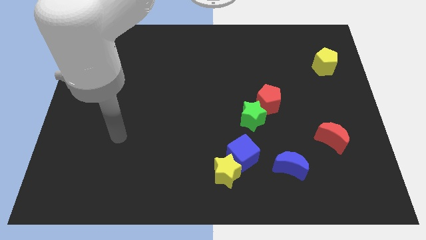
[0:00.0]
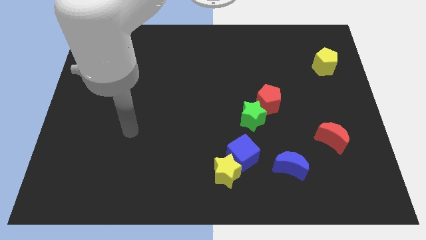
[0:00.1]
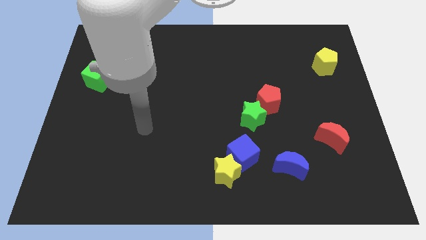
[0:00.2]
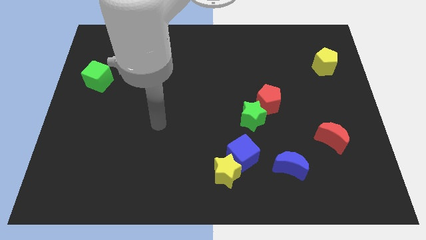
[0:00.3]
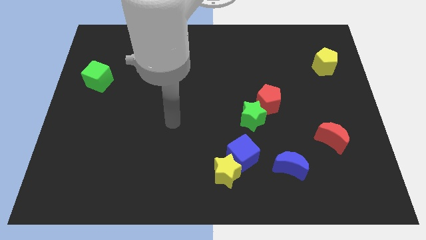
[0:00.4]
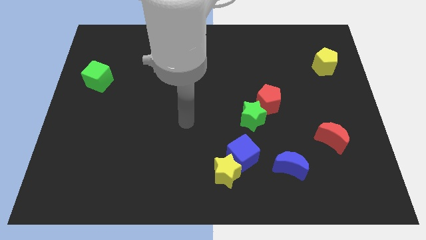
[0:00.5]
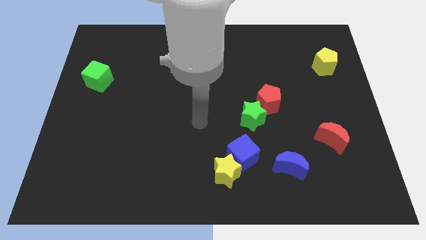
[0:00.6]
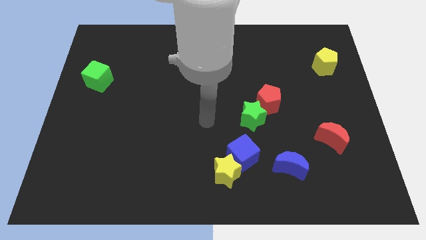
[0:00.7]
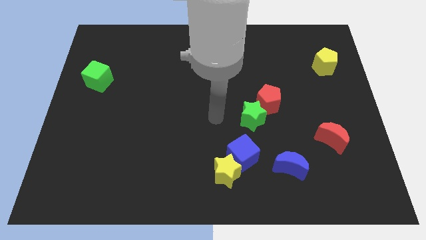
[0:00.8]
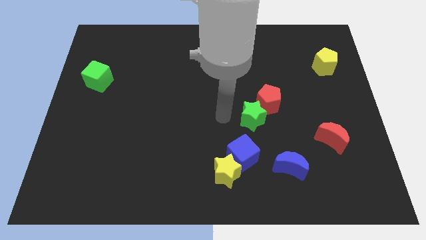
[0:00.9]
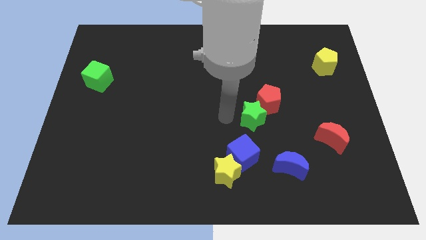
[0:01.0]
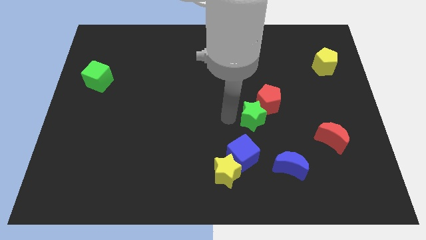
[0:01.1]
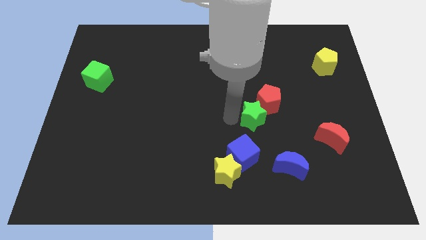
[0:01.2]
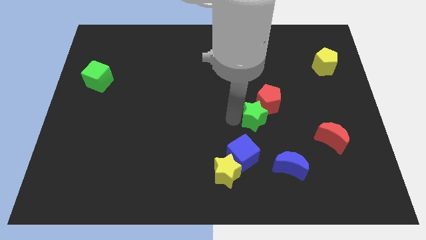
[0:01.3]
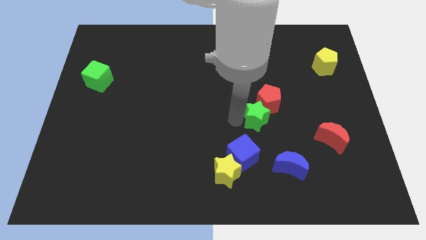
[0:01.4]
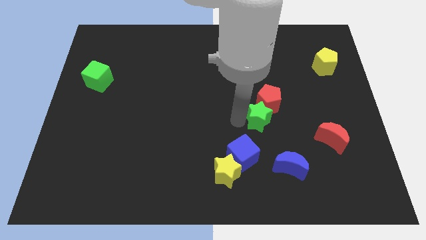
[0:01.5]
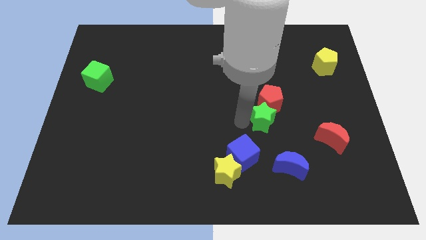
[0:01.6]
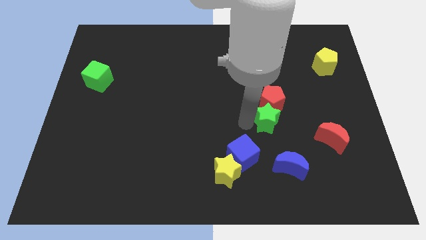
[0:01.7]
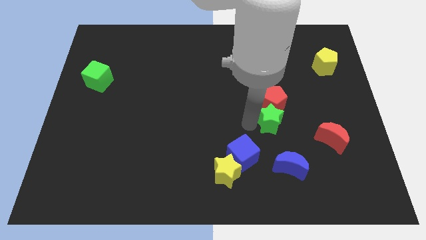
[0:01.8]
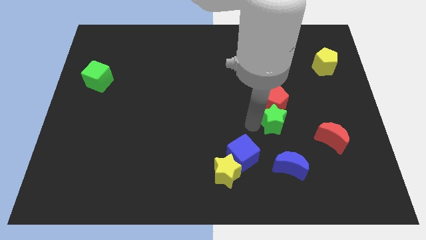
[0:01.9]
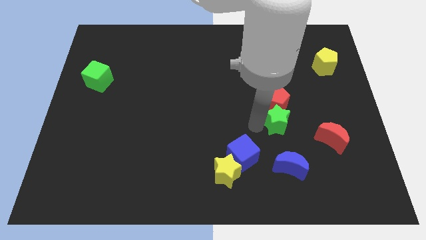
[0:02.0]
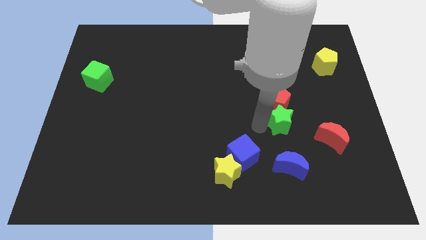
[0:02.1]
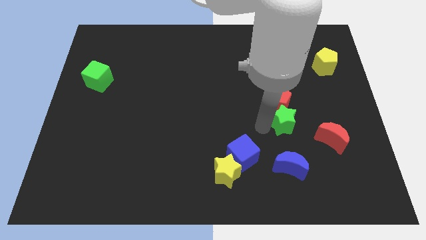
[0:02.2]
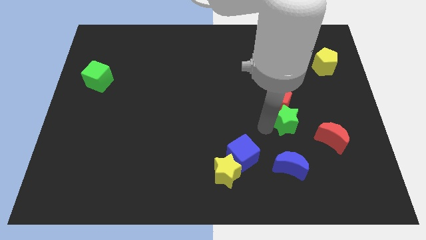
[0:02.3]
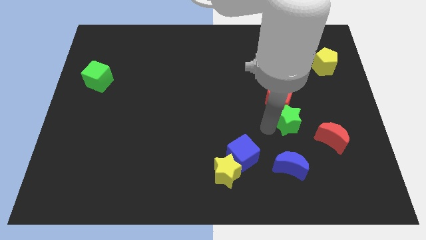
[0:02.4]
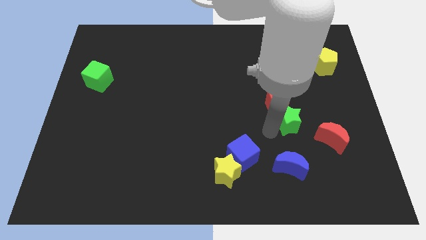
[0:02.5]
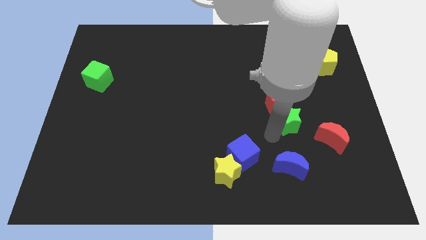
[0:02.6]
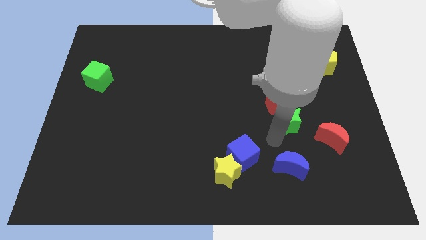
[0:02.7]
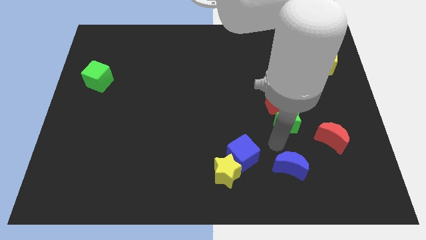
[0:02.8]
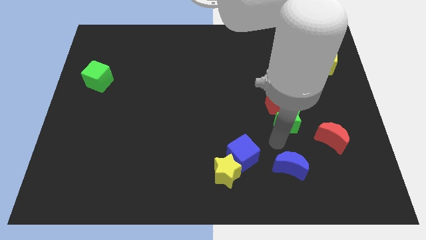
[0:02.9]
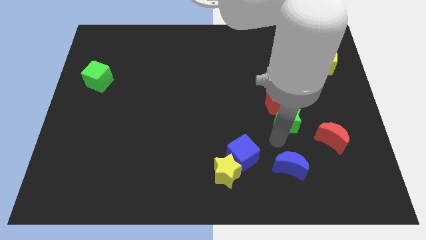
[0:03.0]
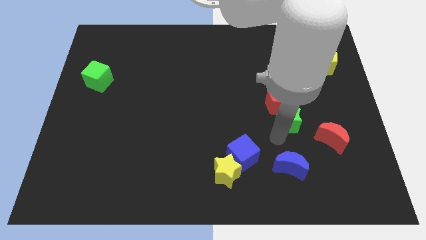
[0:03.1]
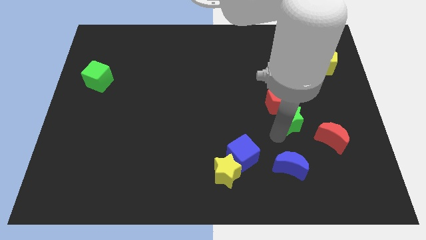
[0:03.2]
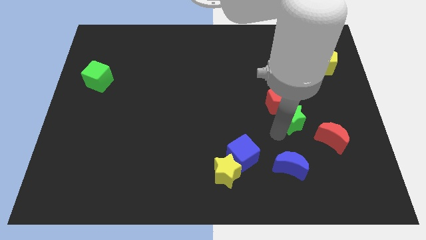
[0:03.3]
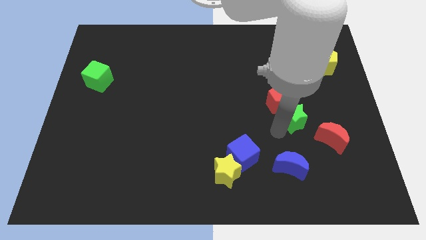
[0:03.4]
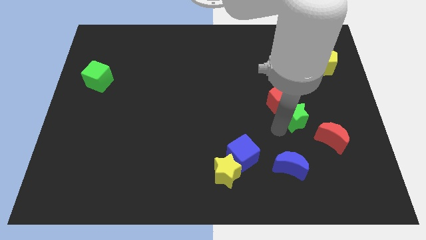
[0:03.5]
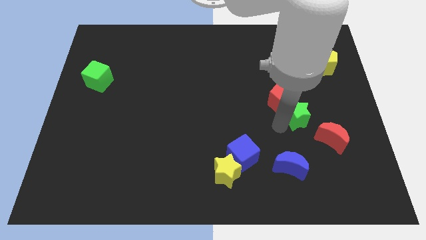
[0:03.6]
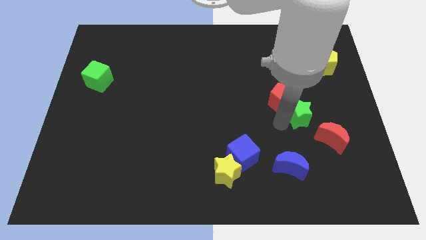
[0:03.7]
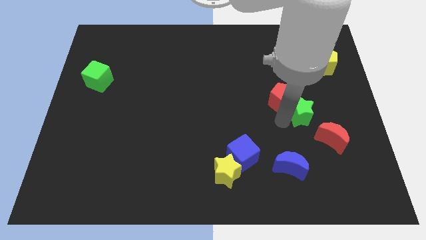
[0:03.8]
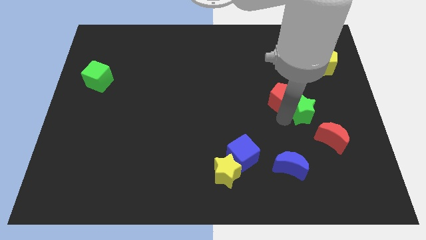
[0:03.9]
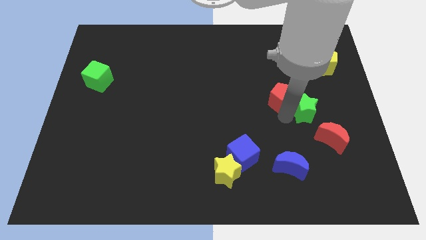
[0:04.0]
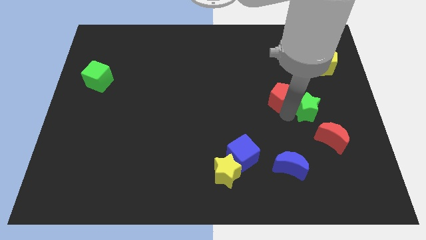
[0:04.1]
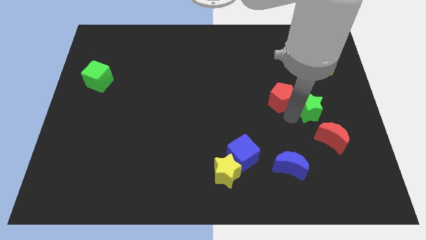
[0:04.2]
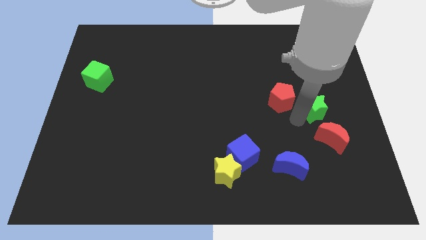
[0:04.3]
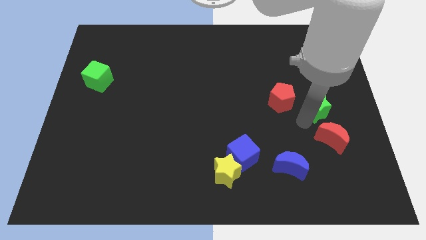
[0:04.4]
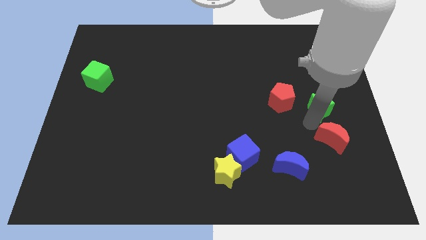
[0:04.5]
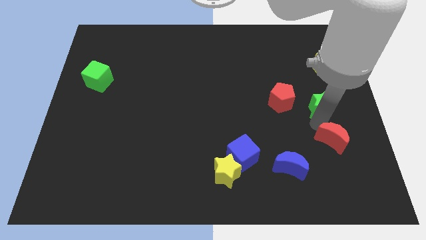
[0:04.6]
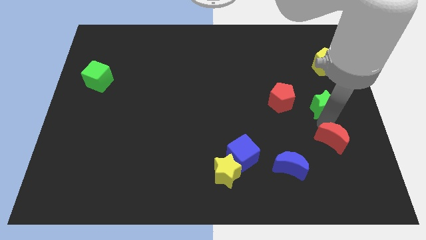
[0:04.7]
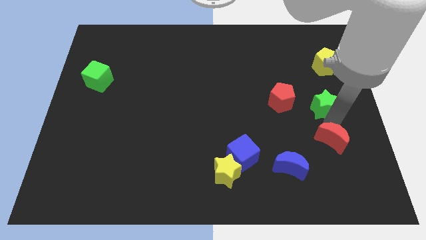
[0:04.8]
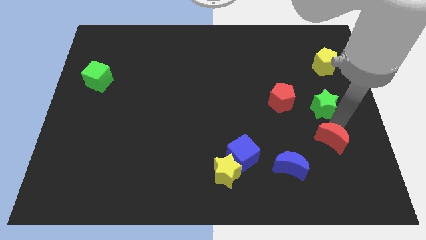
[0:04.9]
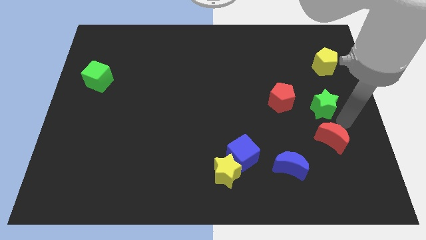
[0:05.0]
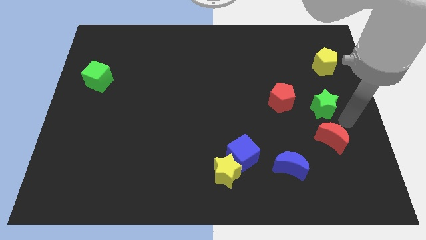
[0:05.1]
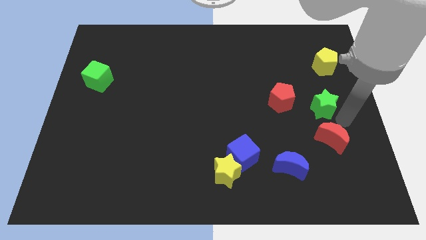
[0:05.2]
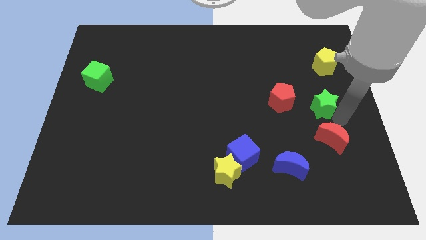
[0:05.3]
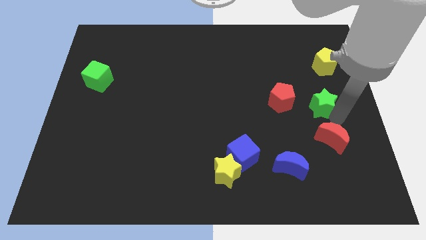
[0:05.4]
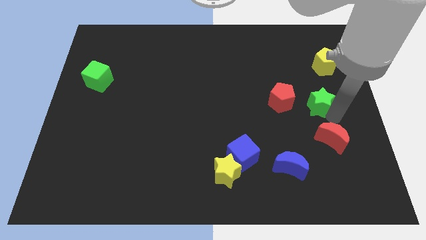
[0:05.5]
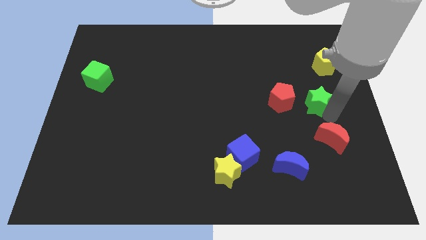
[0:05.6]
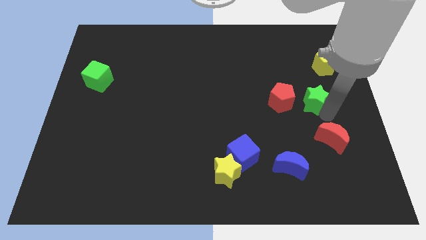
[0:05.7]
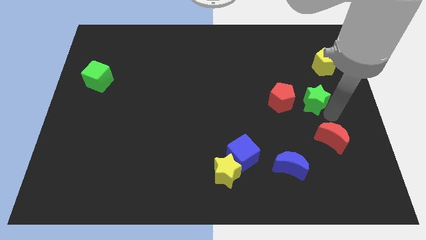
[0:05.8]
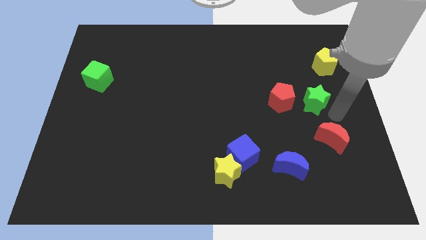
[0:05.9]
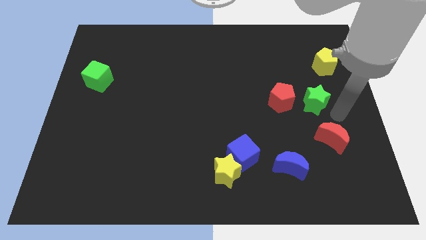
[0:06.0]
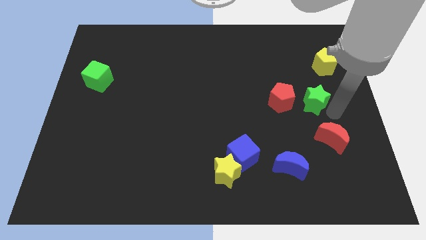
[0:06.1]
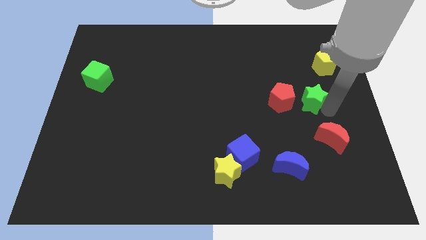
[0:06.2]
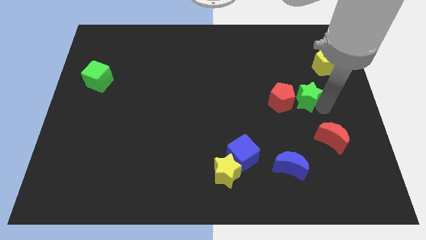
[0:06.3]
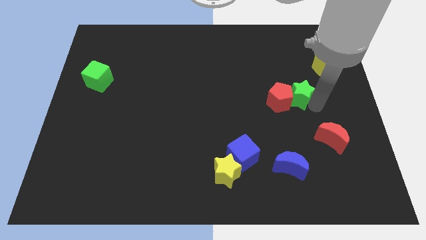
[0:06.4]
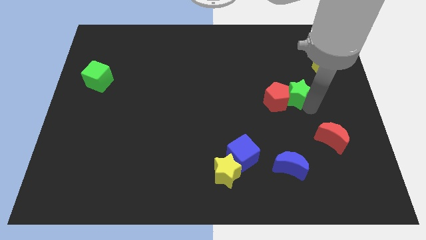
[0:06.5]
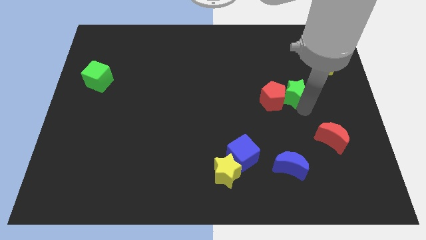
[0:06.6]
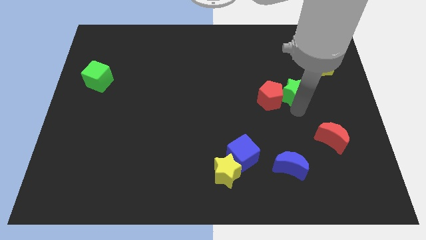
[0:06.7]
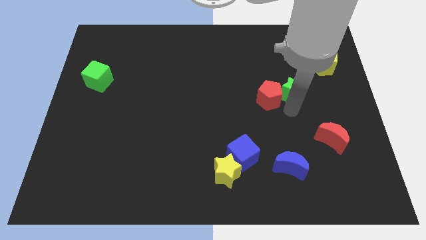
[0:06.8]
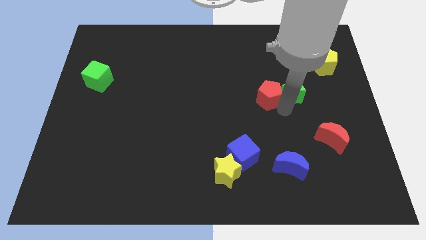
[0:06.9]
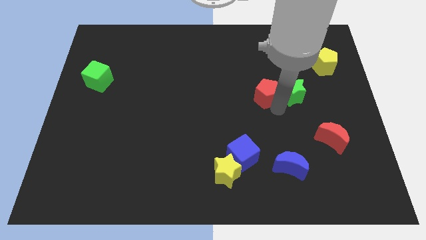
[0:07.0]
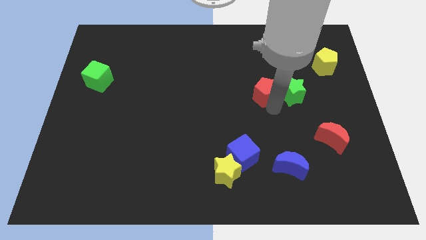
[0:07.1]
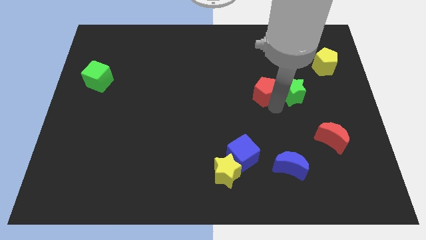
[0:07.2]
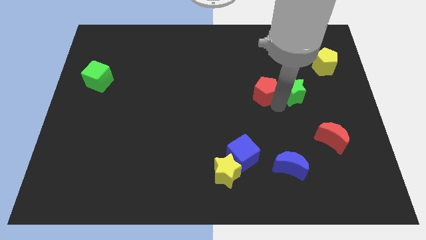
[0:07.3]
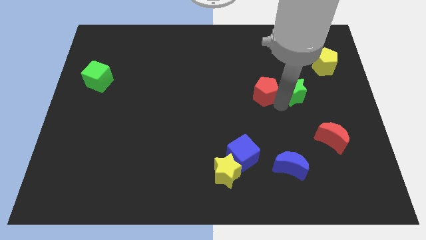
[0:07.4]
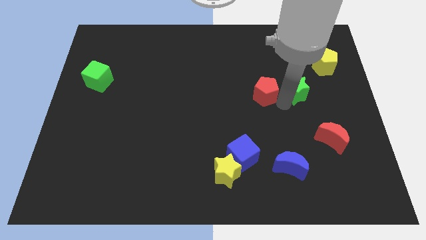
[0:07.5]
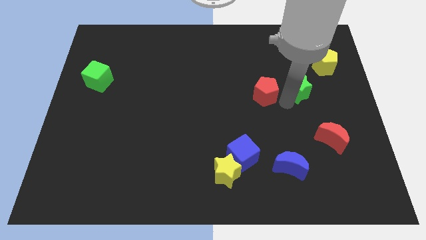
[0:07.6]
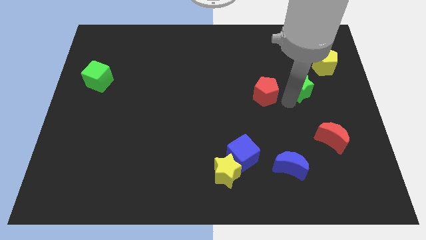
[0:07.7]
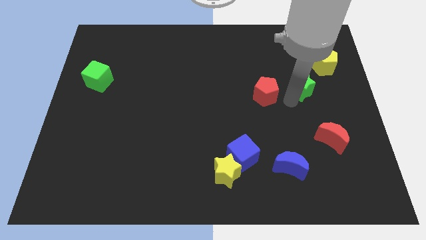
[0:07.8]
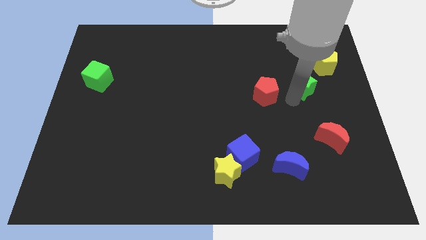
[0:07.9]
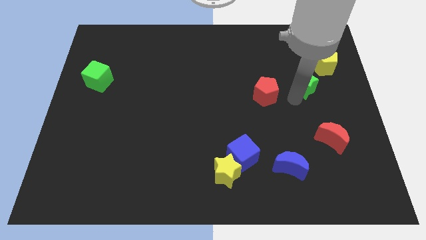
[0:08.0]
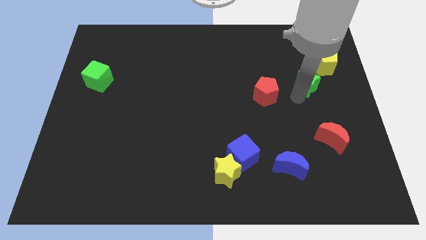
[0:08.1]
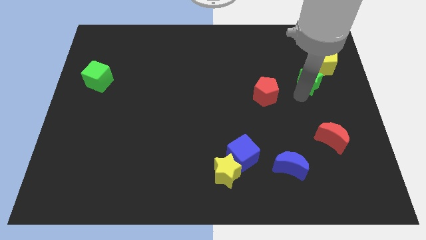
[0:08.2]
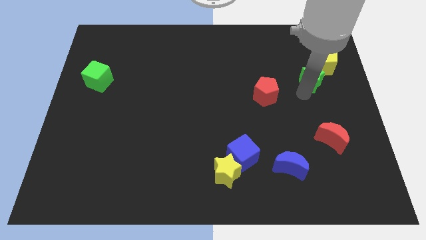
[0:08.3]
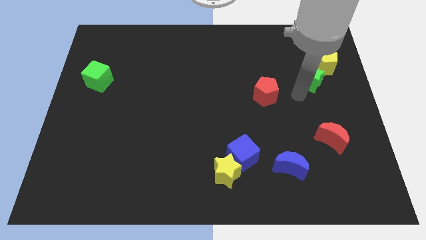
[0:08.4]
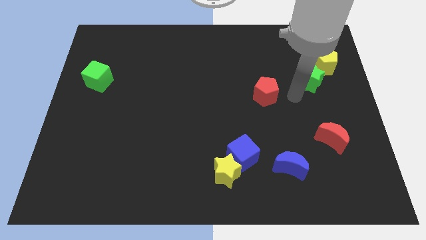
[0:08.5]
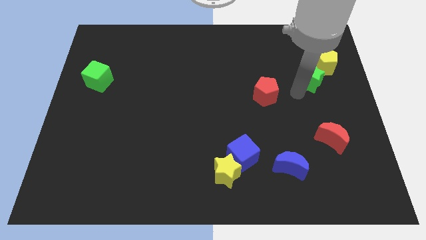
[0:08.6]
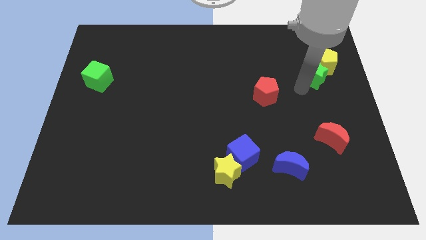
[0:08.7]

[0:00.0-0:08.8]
move the green star next to the yellow pentagon
